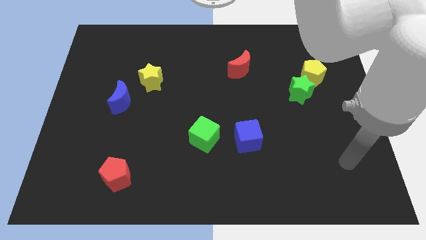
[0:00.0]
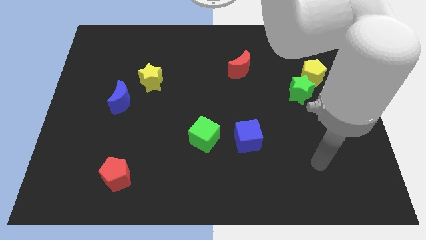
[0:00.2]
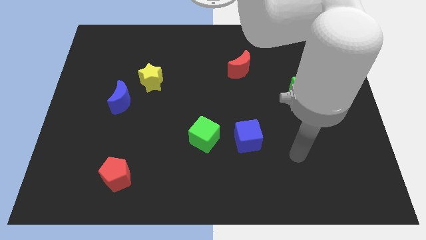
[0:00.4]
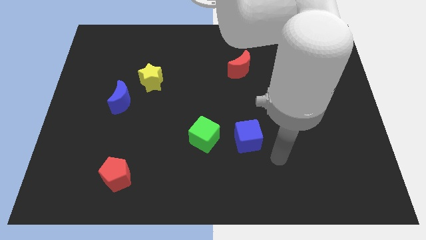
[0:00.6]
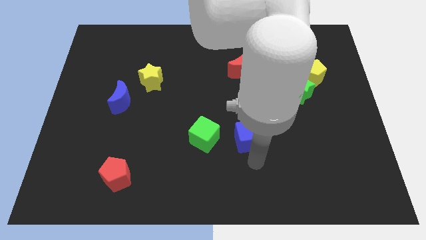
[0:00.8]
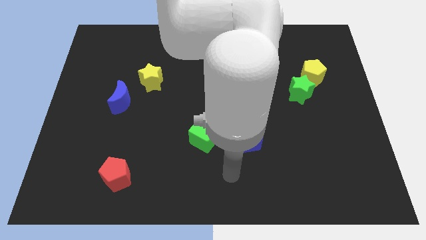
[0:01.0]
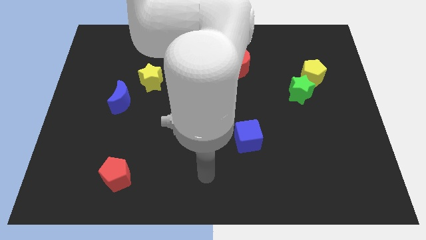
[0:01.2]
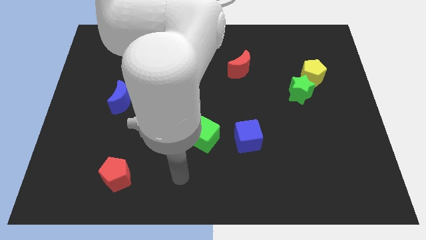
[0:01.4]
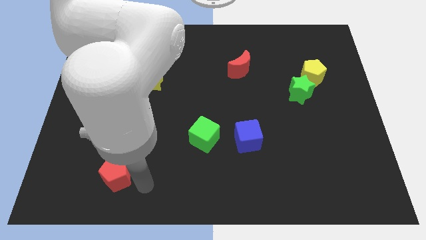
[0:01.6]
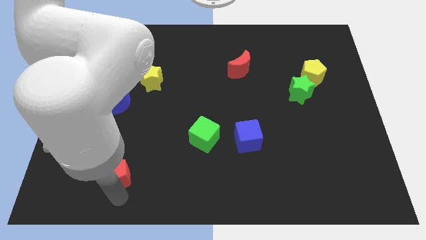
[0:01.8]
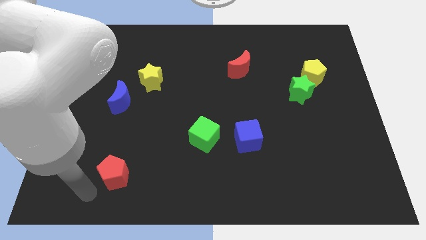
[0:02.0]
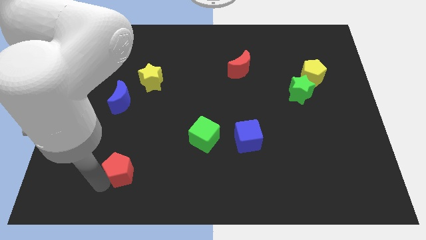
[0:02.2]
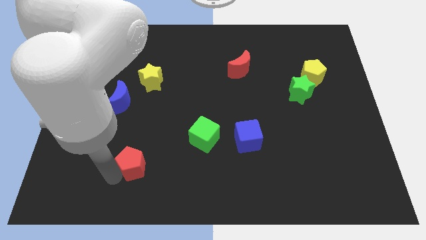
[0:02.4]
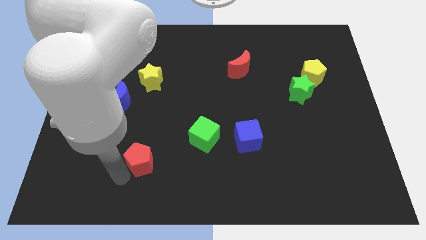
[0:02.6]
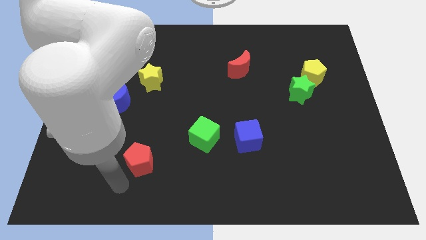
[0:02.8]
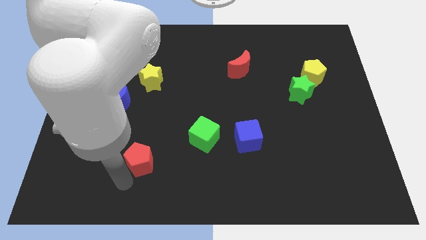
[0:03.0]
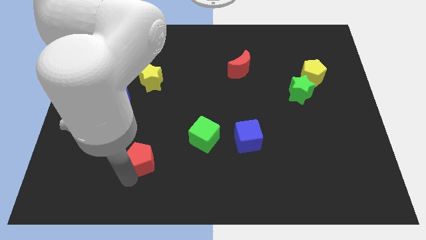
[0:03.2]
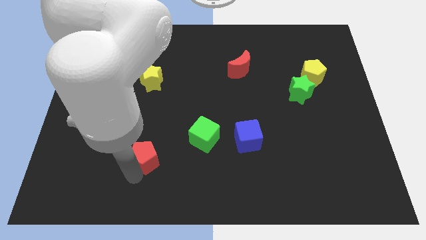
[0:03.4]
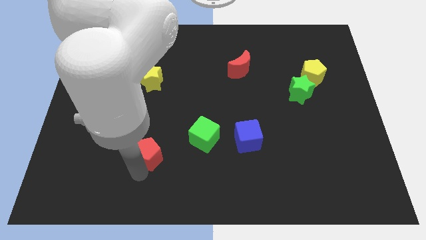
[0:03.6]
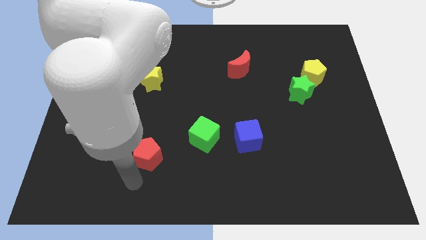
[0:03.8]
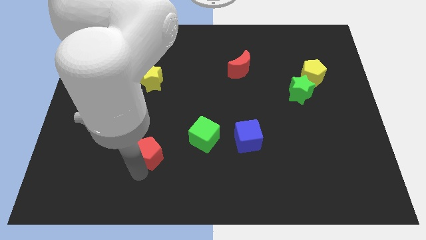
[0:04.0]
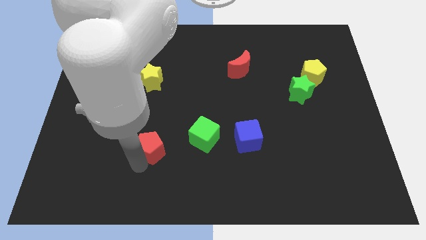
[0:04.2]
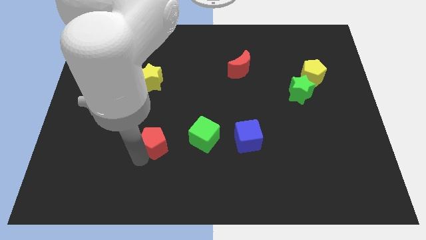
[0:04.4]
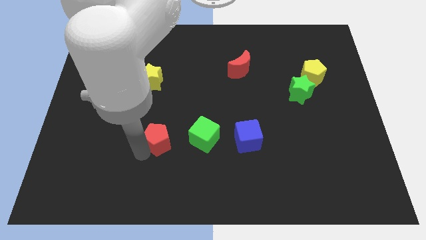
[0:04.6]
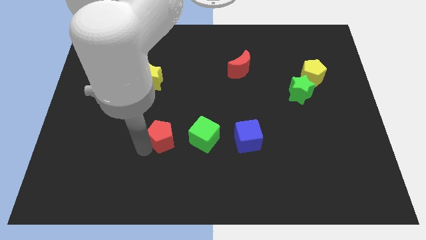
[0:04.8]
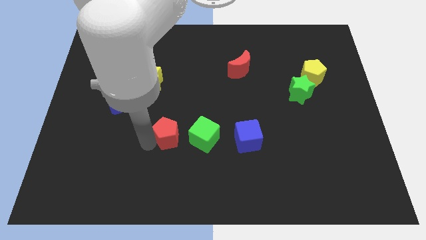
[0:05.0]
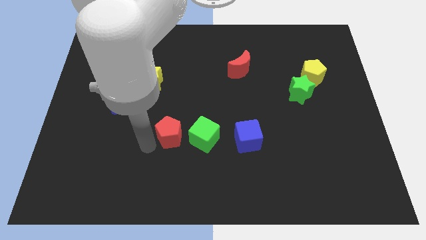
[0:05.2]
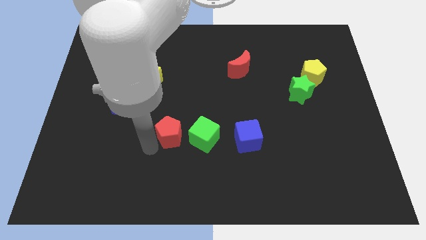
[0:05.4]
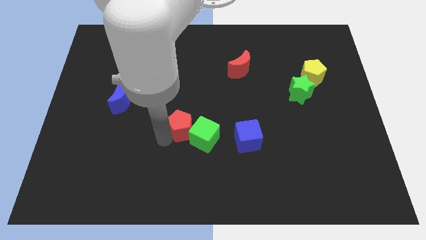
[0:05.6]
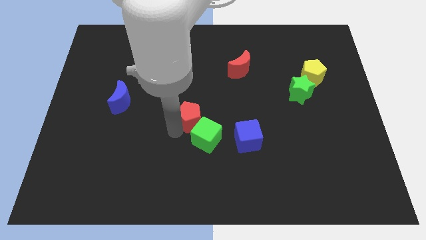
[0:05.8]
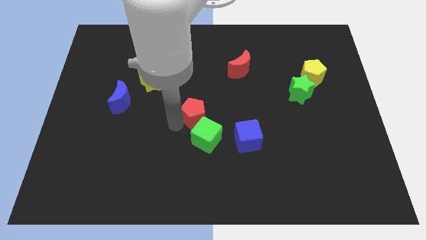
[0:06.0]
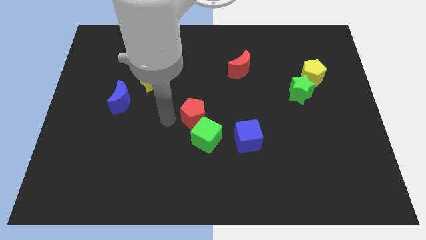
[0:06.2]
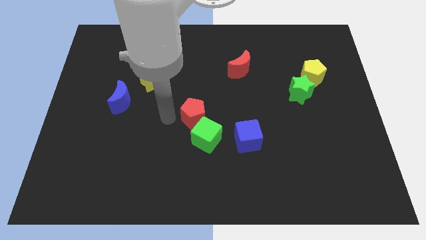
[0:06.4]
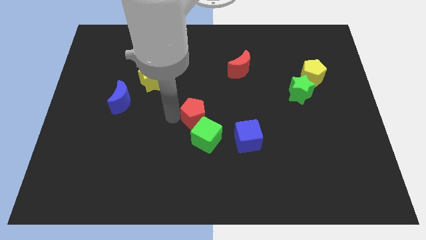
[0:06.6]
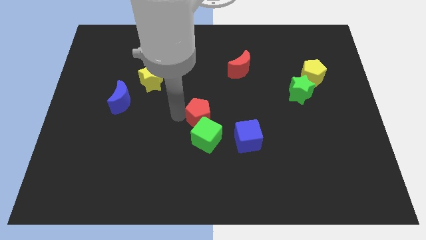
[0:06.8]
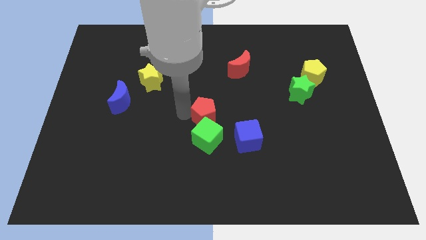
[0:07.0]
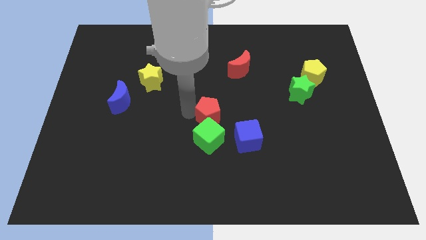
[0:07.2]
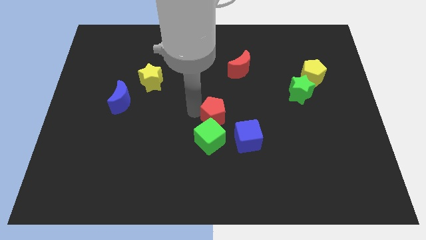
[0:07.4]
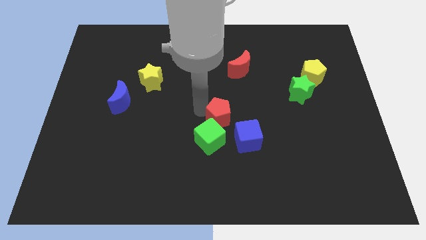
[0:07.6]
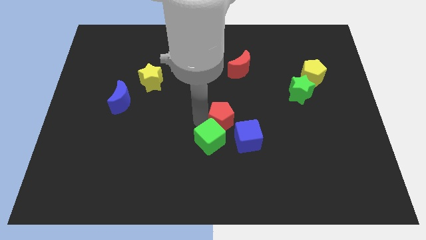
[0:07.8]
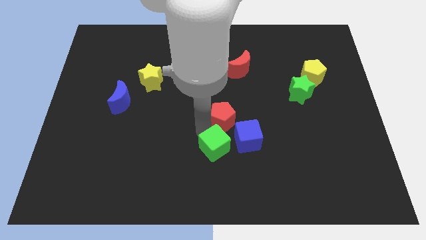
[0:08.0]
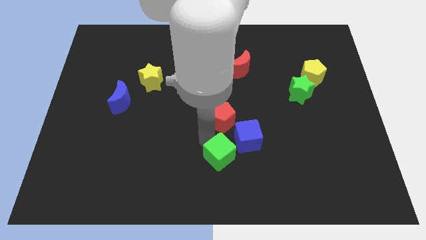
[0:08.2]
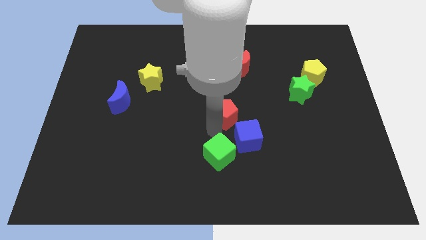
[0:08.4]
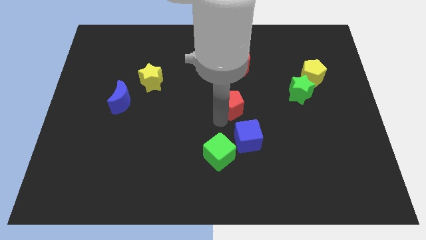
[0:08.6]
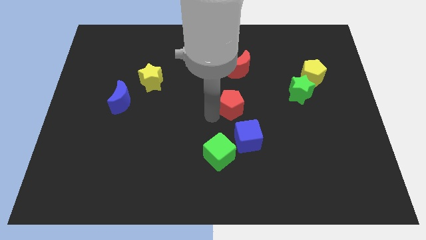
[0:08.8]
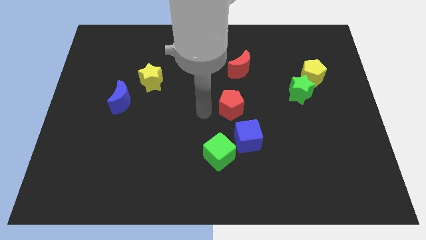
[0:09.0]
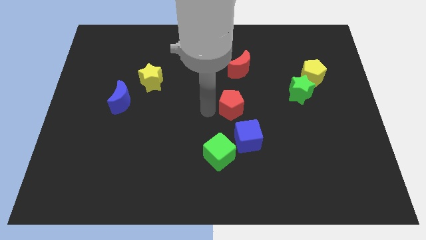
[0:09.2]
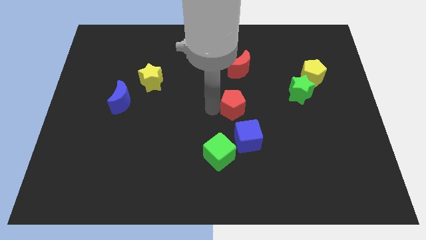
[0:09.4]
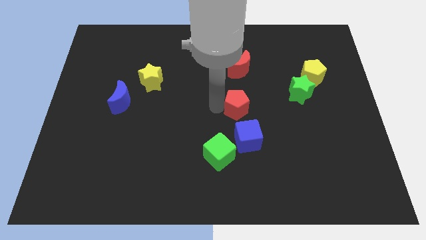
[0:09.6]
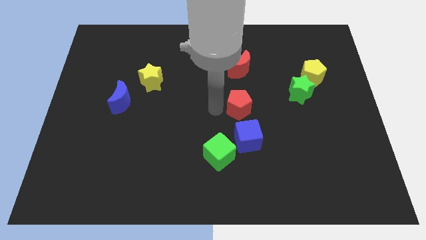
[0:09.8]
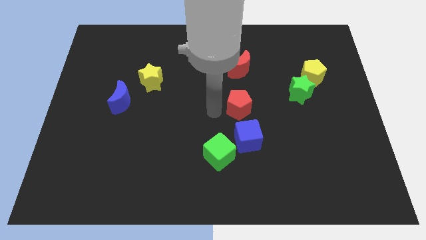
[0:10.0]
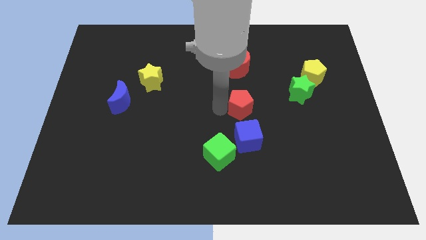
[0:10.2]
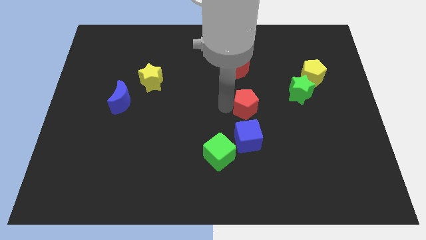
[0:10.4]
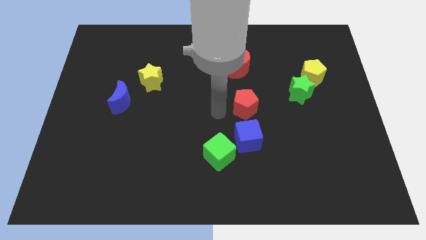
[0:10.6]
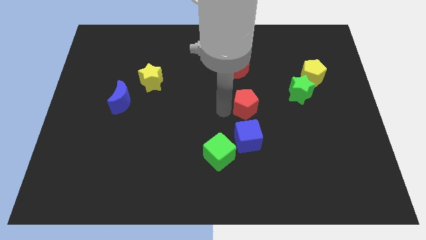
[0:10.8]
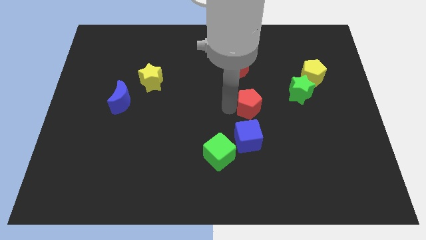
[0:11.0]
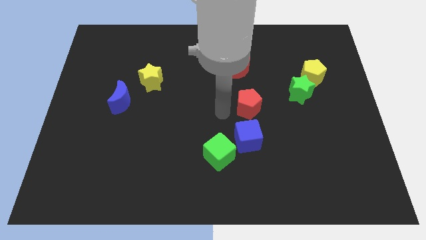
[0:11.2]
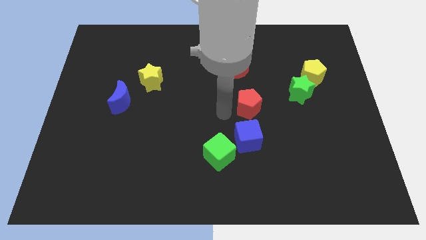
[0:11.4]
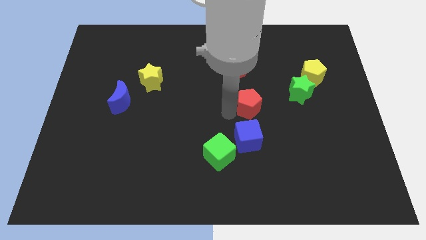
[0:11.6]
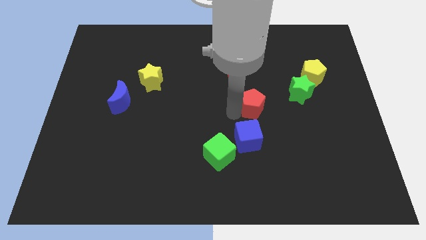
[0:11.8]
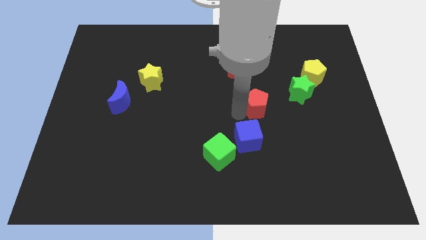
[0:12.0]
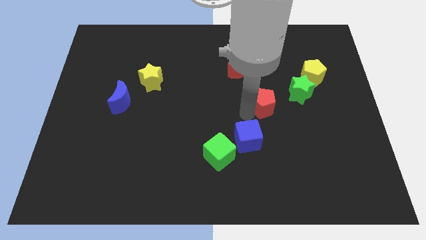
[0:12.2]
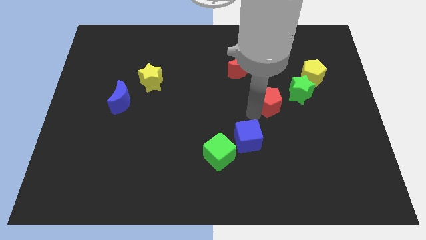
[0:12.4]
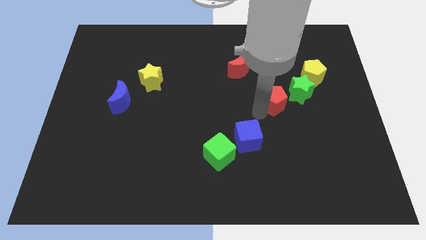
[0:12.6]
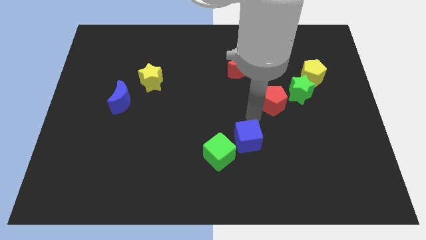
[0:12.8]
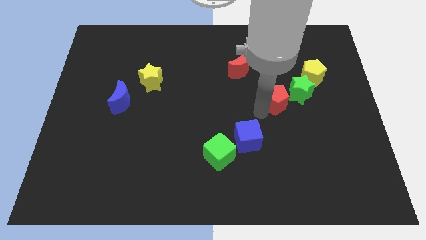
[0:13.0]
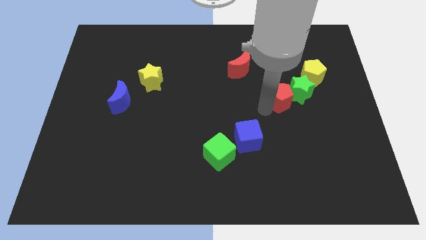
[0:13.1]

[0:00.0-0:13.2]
push the red pentagon close to the green star
